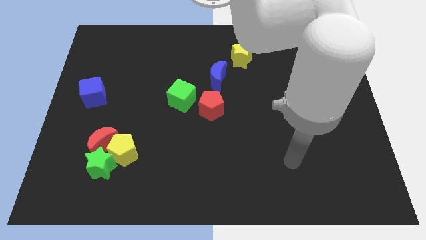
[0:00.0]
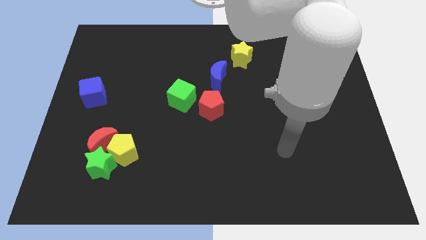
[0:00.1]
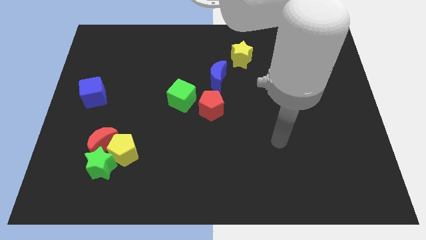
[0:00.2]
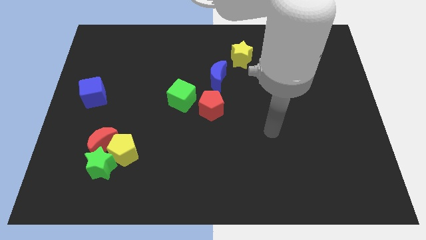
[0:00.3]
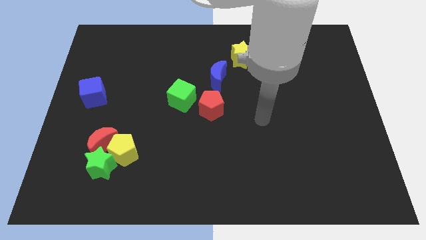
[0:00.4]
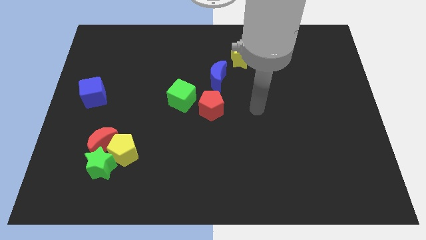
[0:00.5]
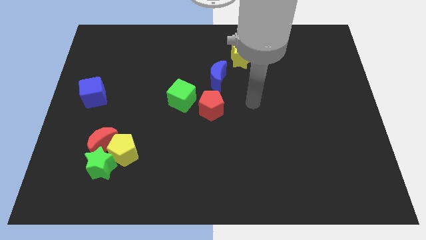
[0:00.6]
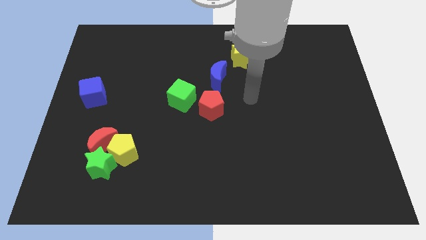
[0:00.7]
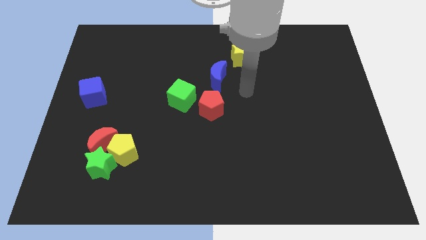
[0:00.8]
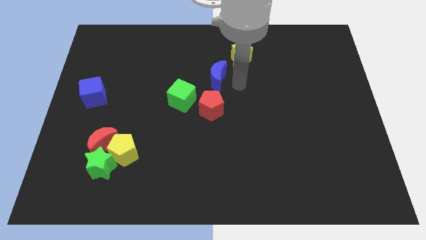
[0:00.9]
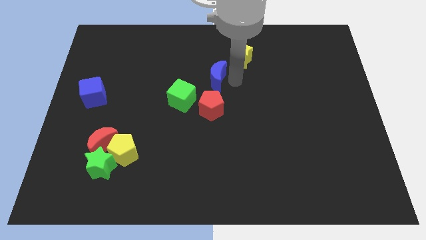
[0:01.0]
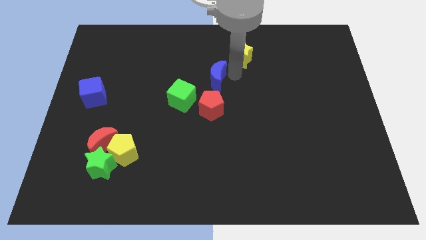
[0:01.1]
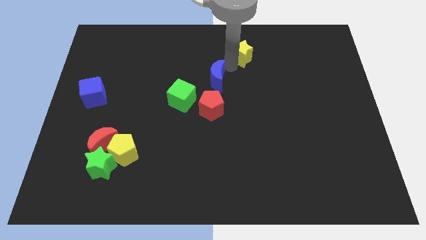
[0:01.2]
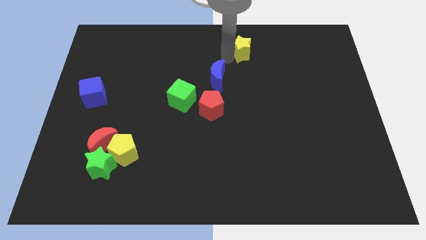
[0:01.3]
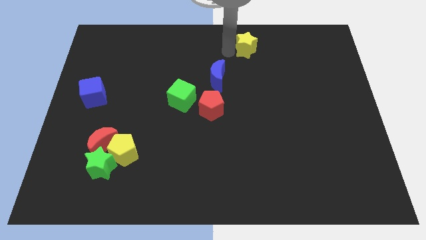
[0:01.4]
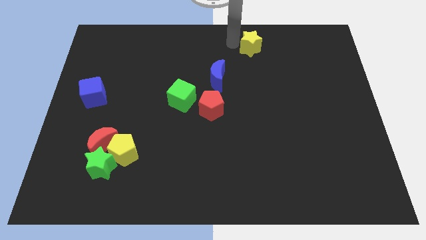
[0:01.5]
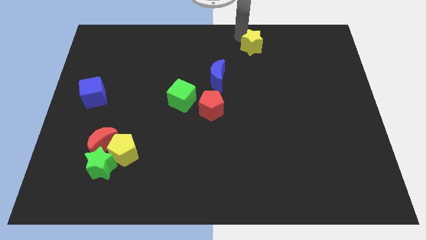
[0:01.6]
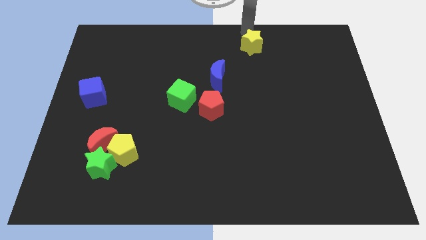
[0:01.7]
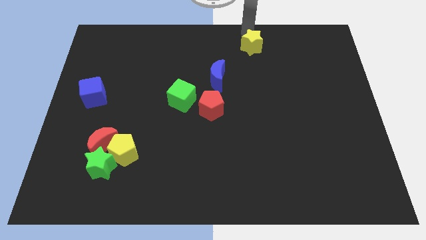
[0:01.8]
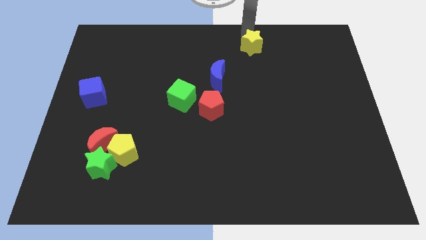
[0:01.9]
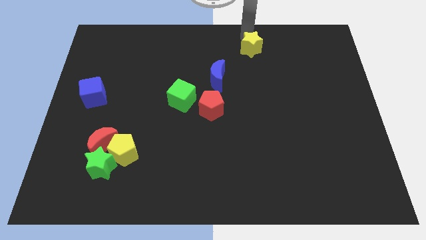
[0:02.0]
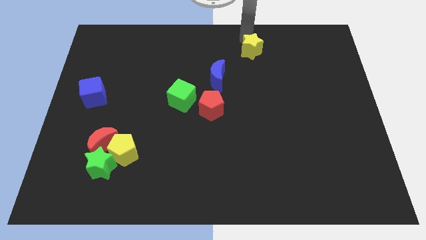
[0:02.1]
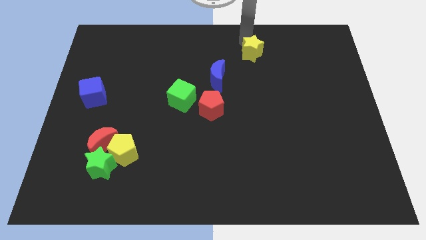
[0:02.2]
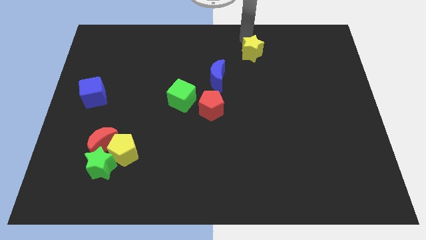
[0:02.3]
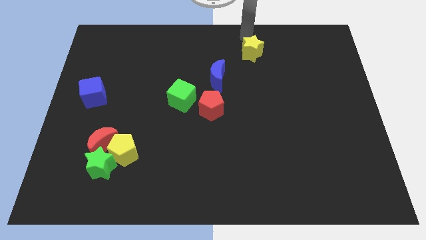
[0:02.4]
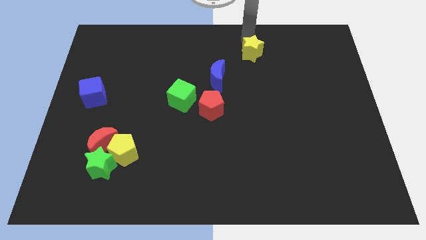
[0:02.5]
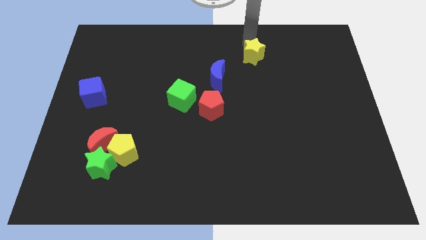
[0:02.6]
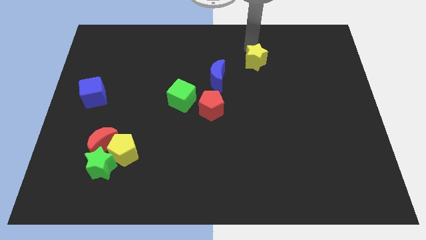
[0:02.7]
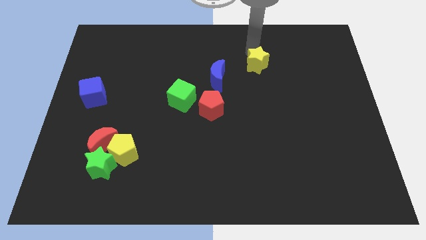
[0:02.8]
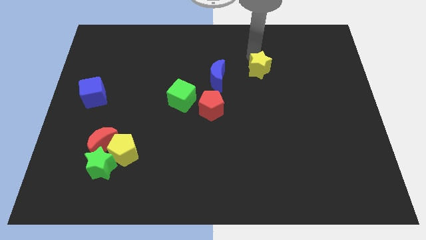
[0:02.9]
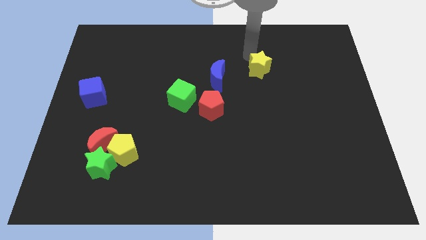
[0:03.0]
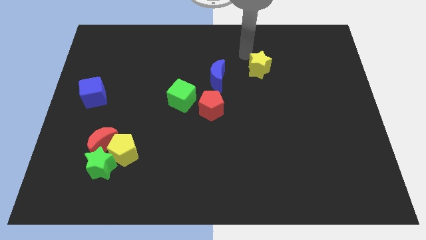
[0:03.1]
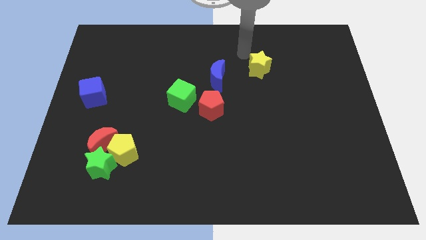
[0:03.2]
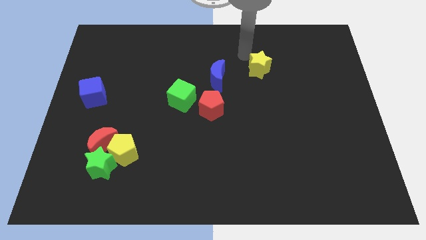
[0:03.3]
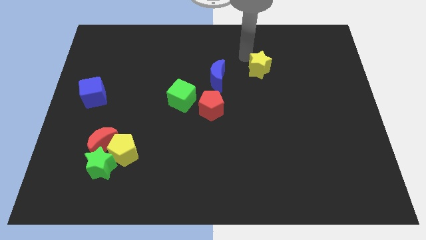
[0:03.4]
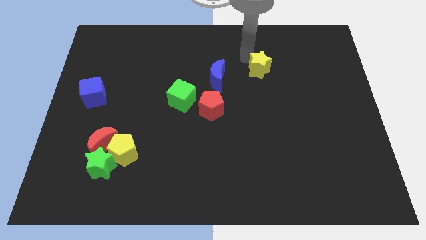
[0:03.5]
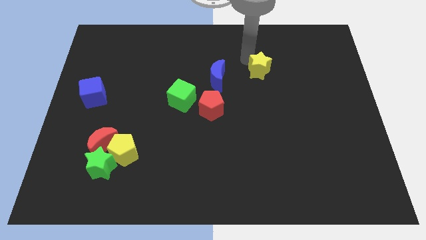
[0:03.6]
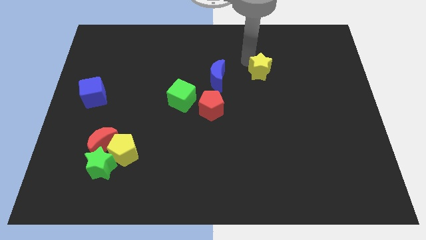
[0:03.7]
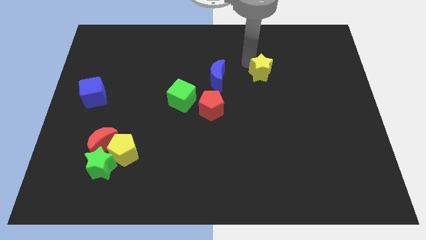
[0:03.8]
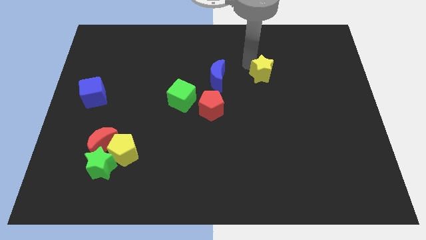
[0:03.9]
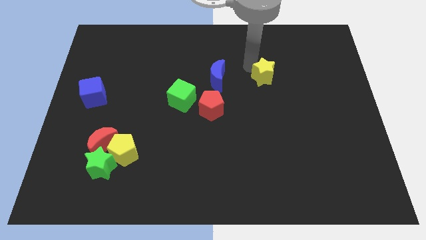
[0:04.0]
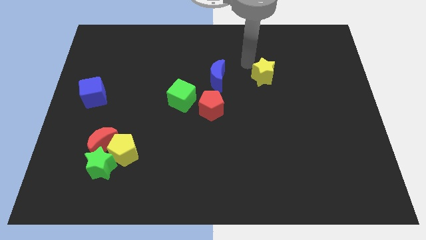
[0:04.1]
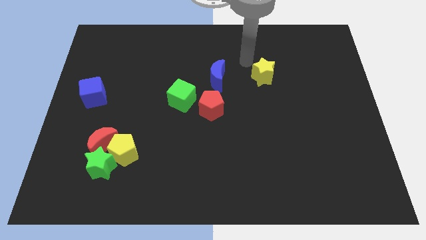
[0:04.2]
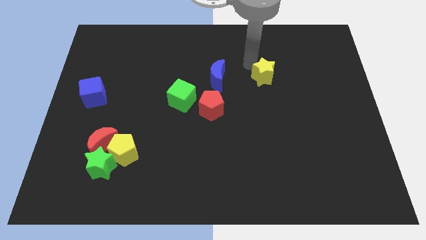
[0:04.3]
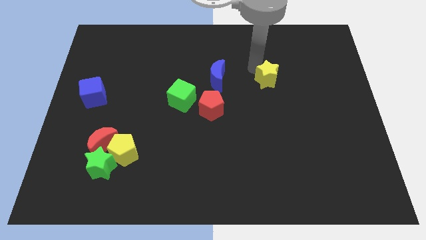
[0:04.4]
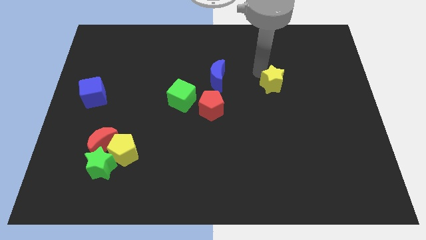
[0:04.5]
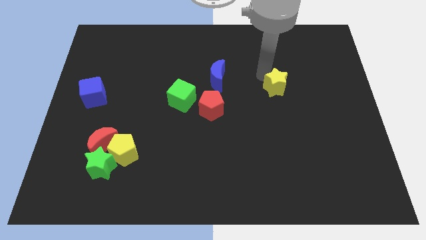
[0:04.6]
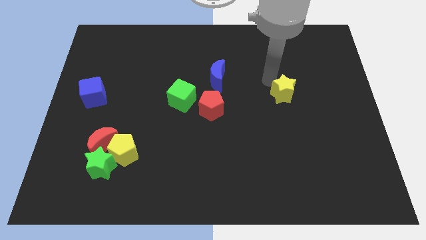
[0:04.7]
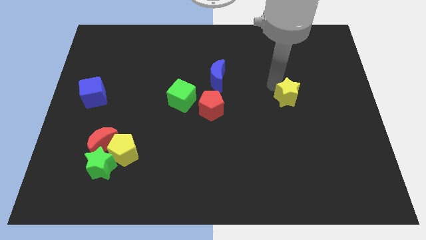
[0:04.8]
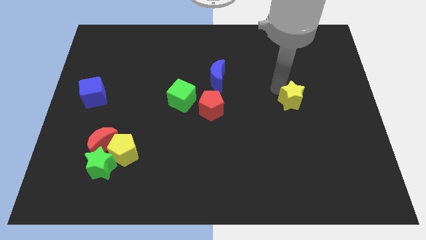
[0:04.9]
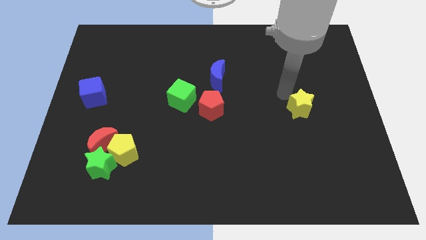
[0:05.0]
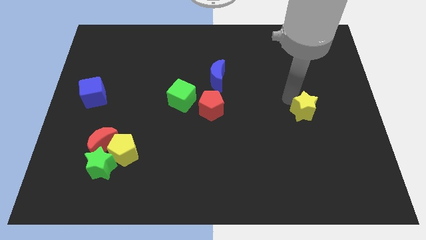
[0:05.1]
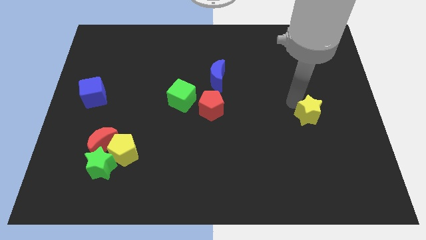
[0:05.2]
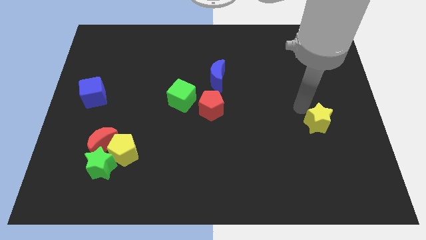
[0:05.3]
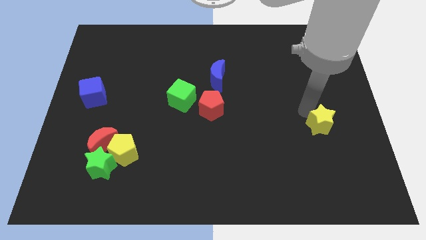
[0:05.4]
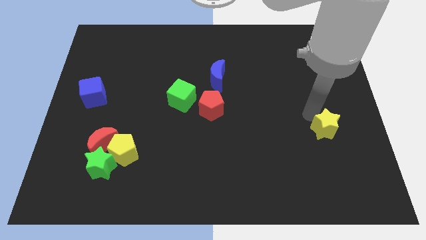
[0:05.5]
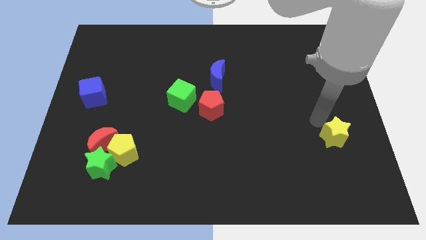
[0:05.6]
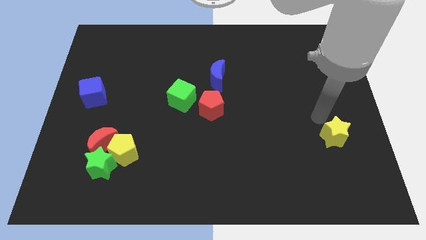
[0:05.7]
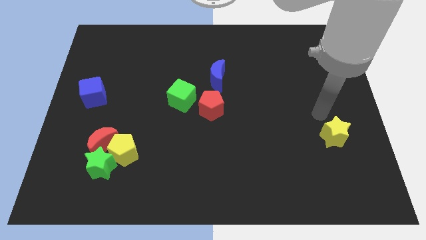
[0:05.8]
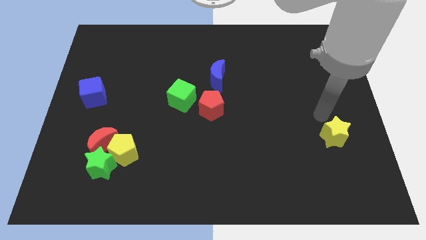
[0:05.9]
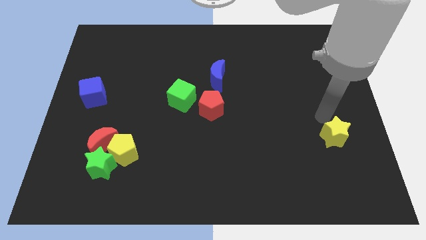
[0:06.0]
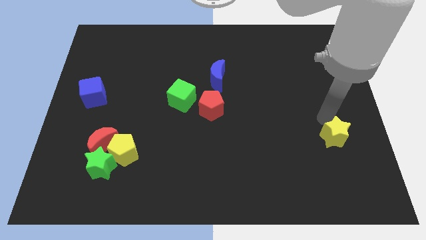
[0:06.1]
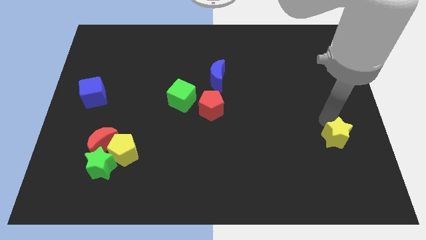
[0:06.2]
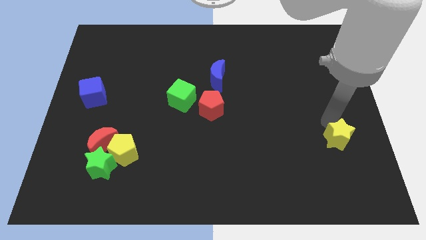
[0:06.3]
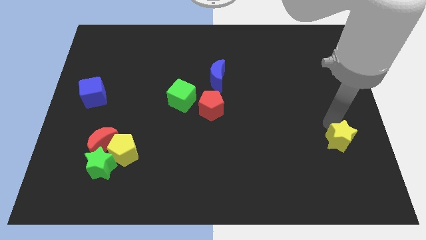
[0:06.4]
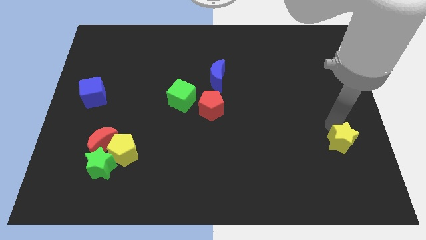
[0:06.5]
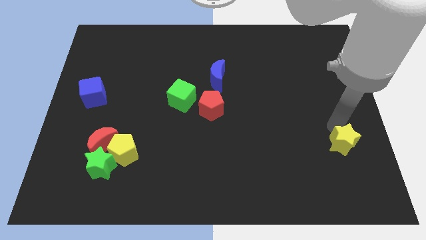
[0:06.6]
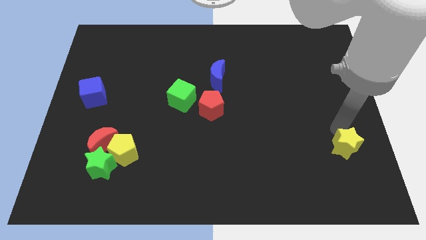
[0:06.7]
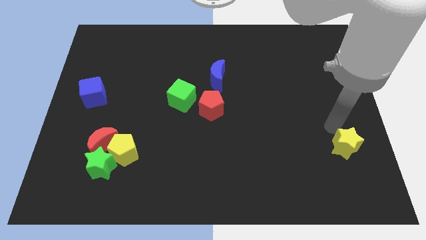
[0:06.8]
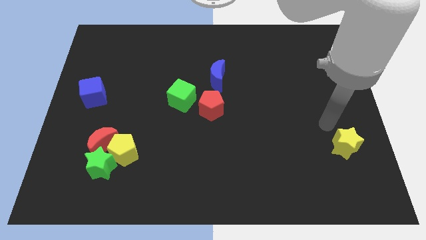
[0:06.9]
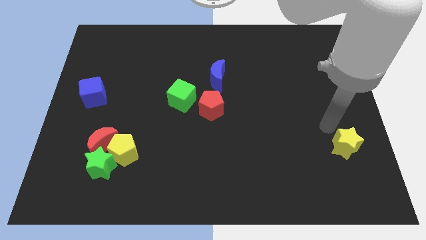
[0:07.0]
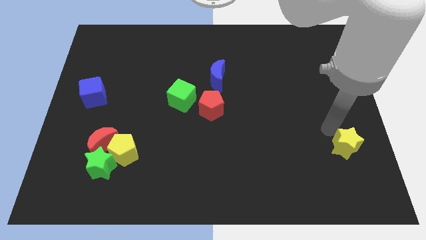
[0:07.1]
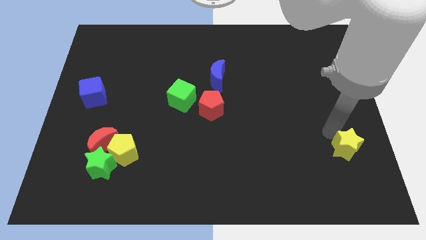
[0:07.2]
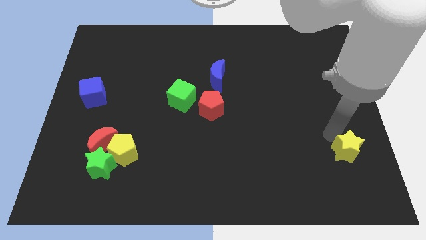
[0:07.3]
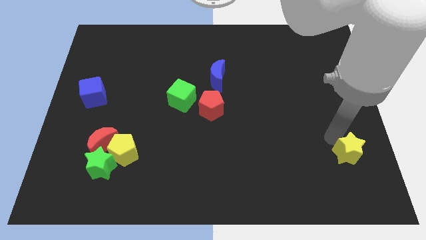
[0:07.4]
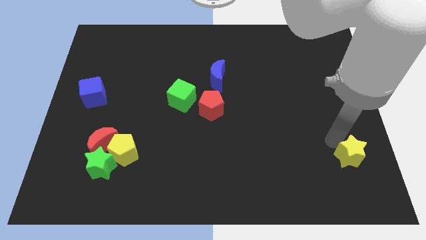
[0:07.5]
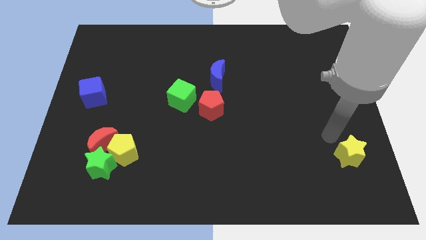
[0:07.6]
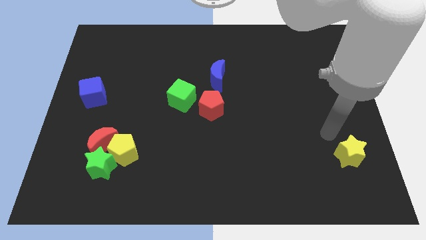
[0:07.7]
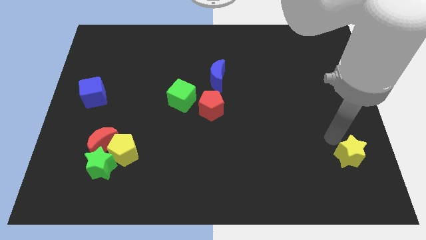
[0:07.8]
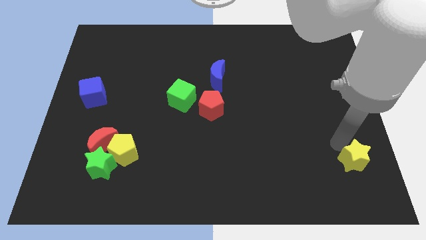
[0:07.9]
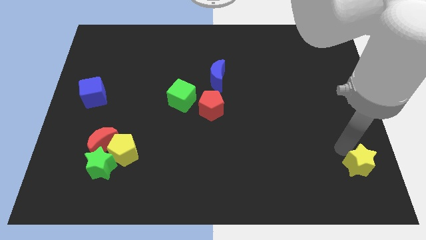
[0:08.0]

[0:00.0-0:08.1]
move the yellow star to the bottom right
